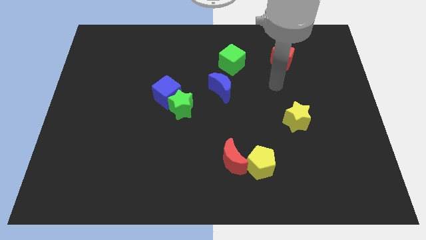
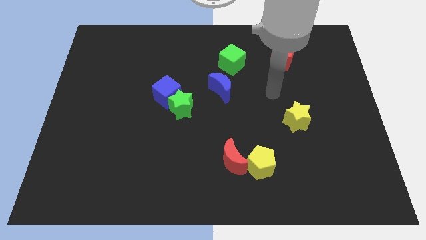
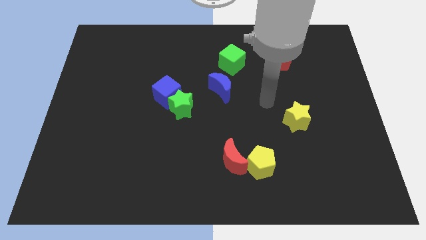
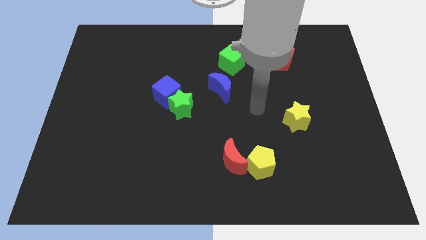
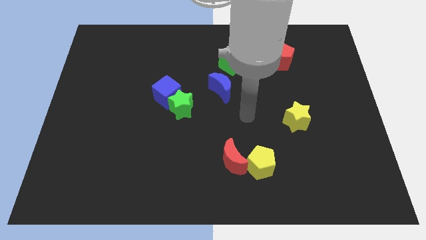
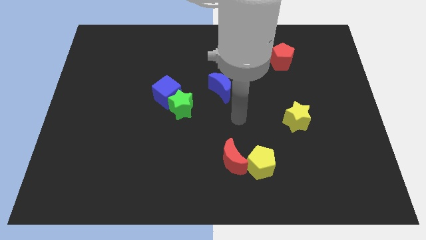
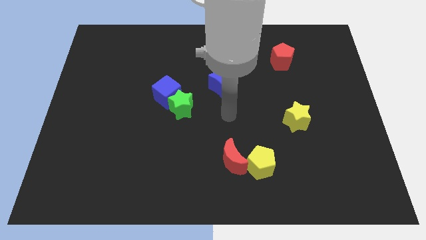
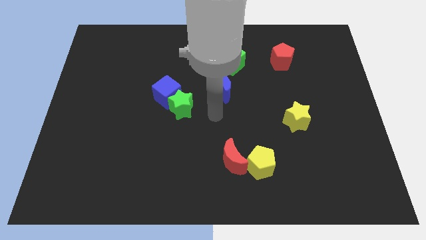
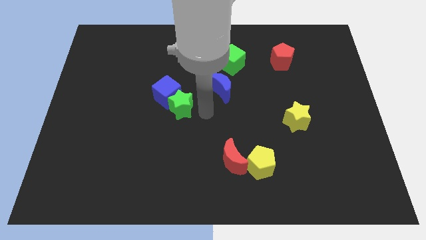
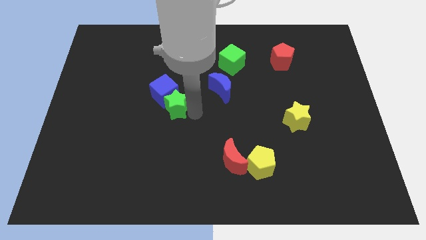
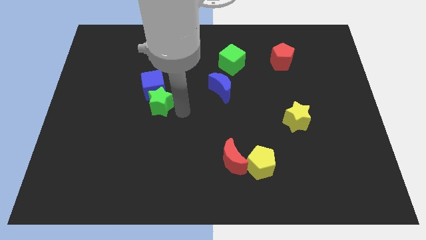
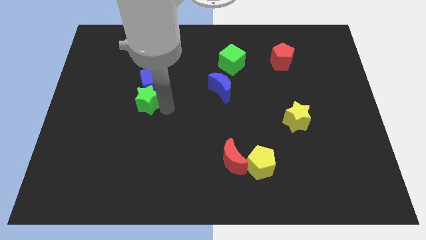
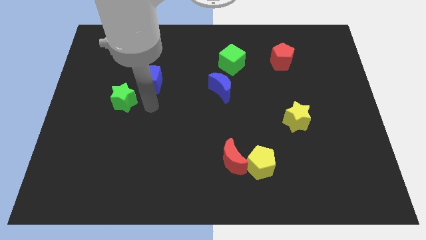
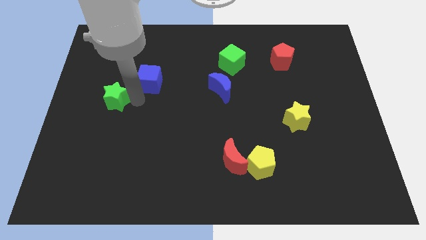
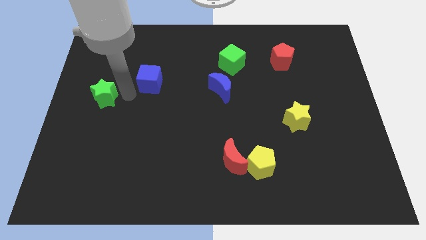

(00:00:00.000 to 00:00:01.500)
separate the blue cube from the green star

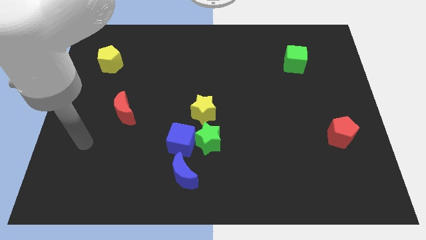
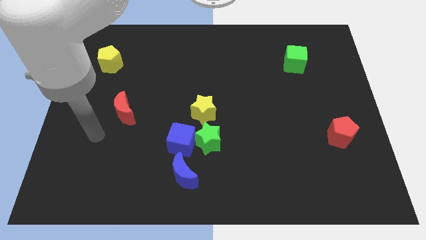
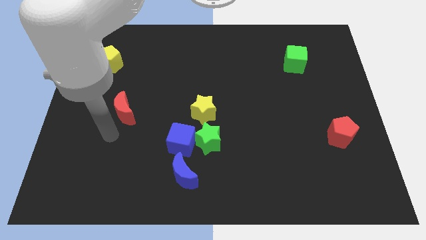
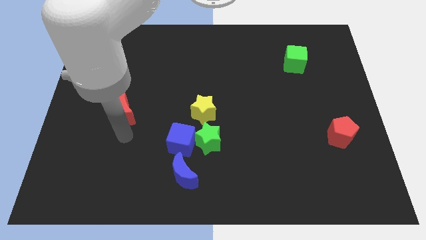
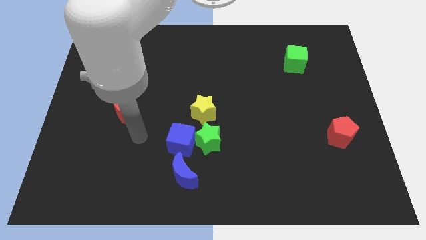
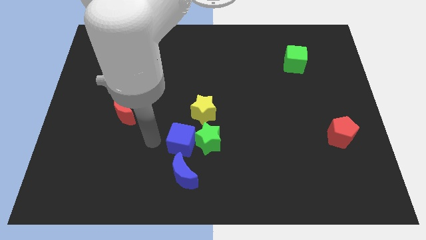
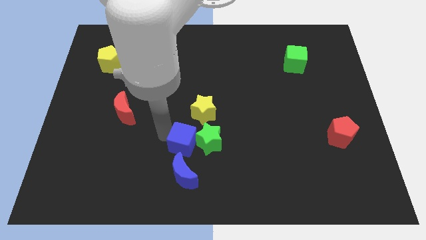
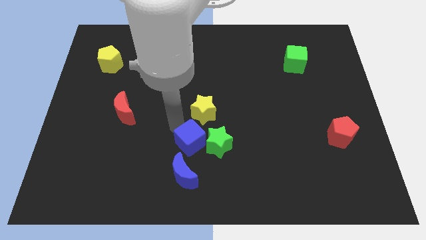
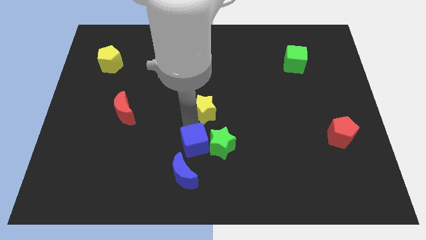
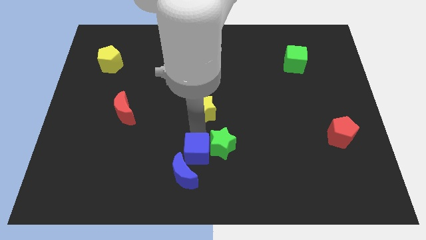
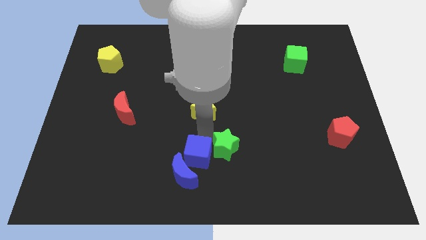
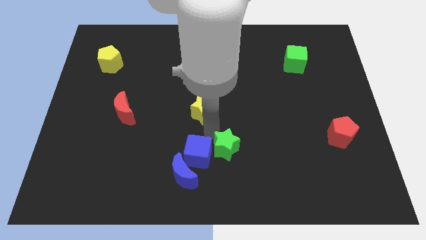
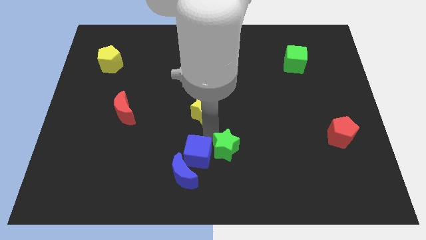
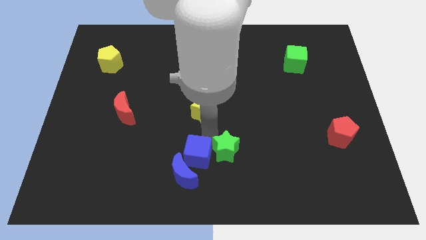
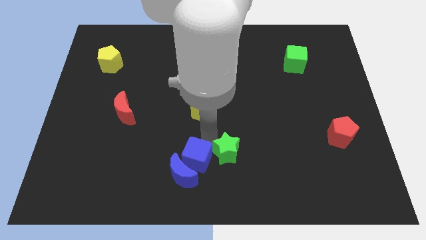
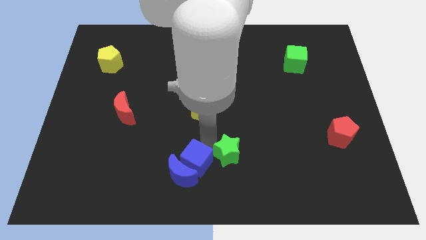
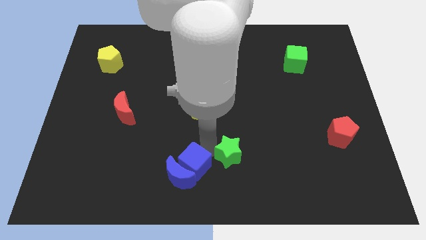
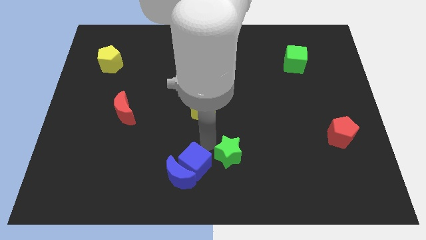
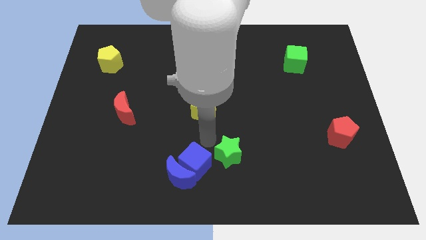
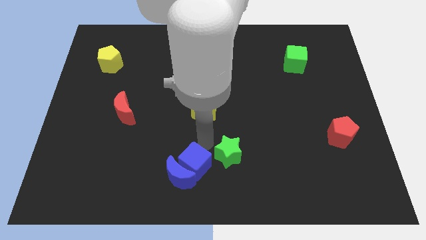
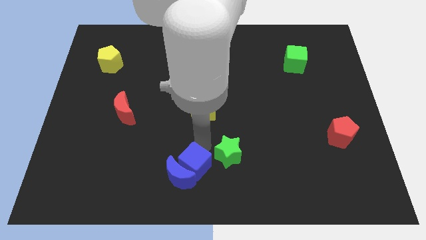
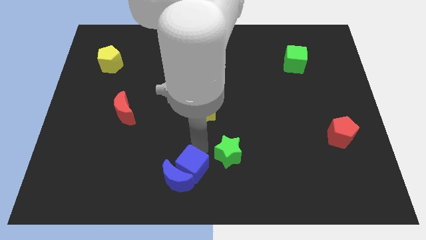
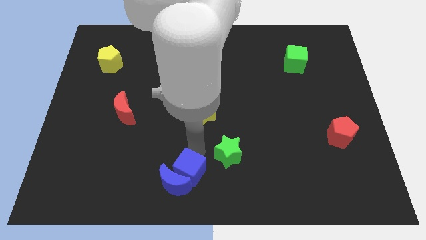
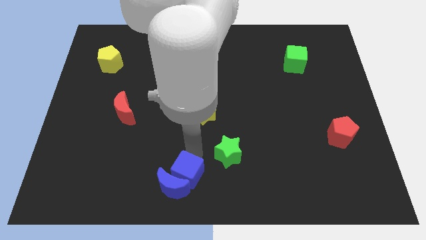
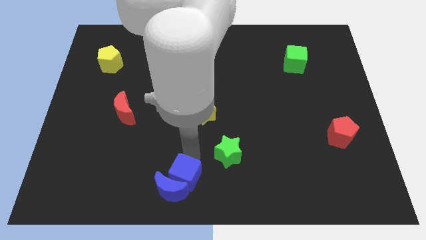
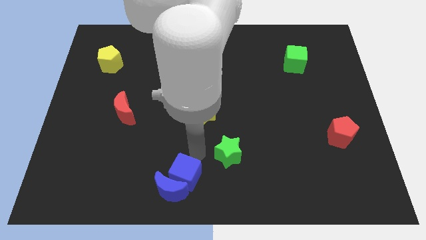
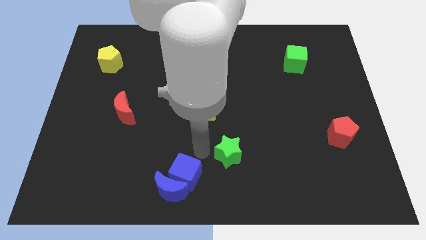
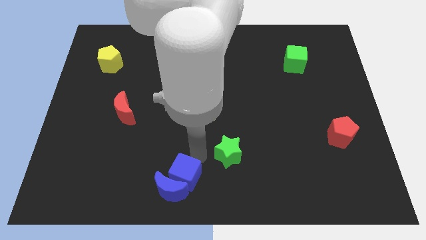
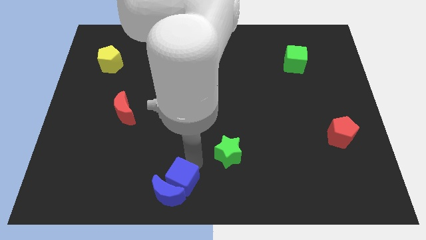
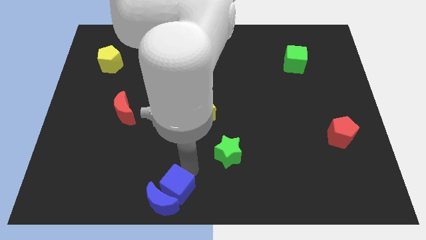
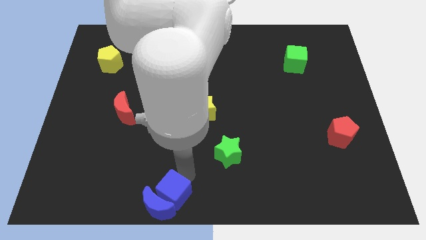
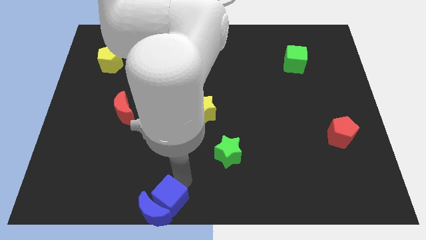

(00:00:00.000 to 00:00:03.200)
move the blue cube away from the group of blocks

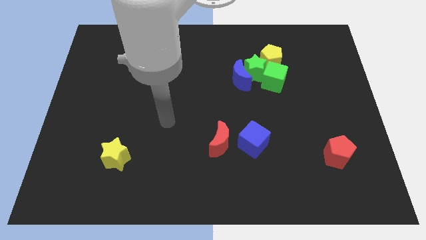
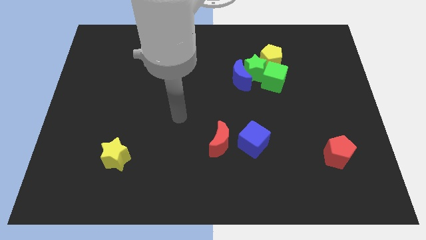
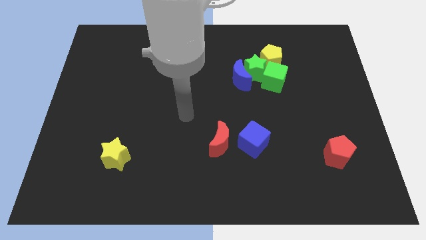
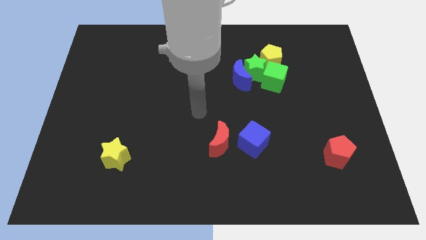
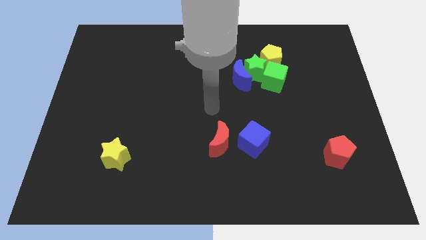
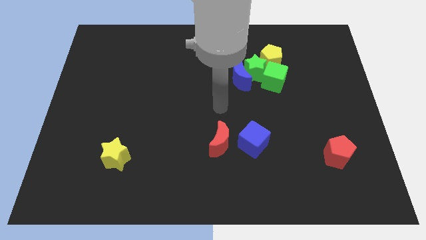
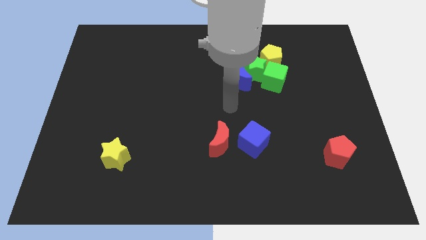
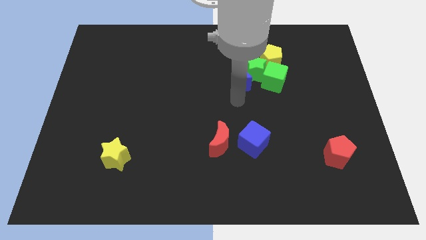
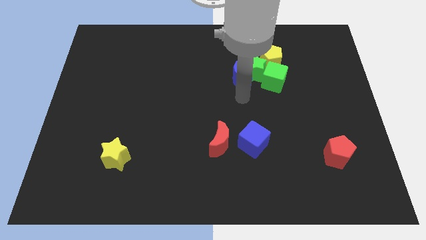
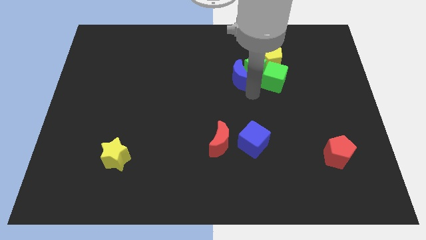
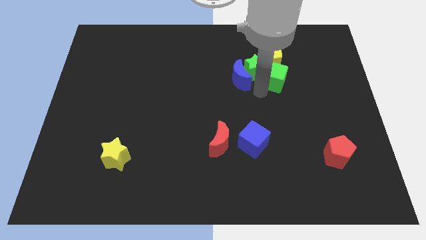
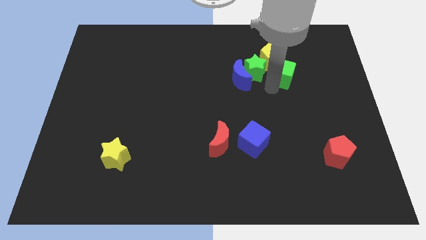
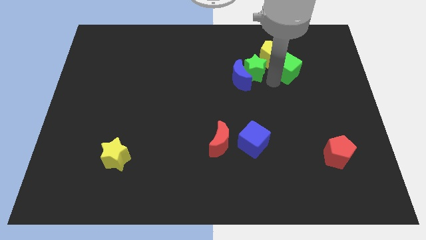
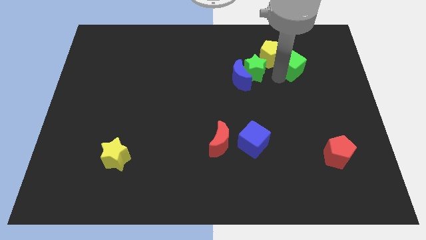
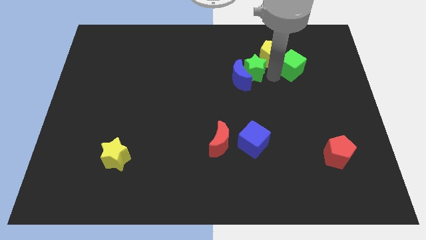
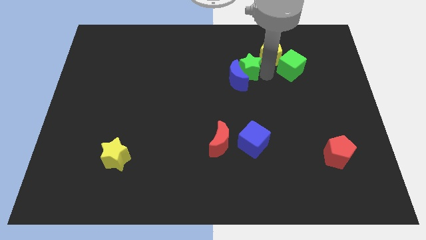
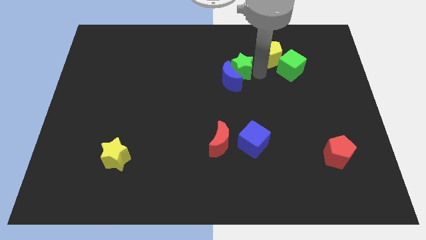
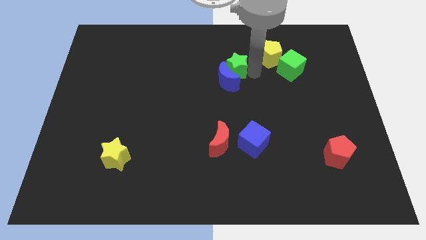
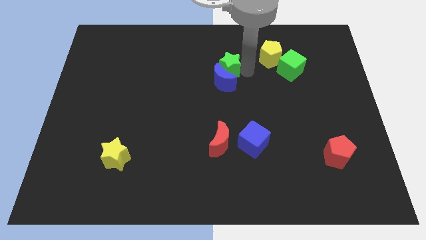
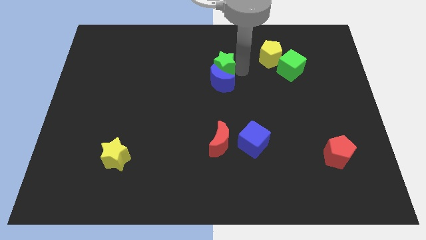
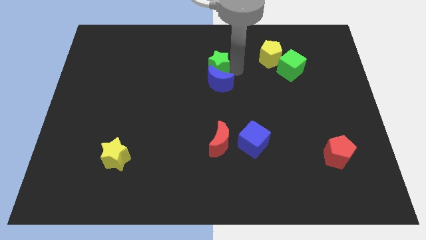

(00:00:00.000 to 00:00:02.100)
separate the green star from the blue moon, green cube, and yellow pentagon

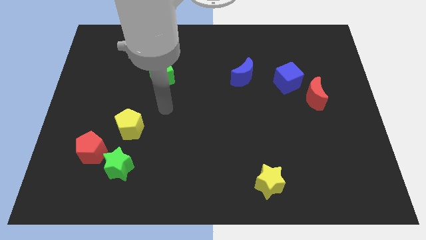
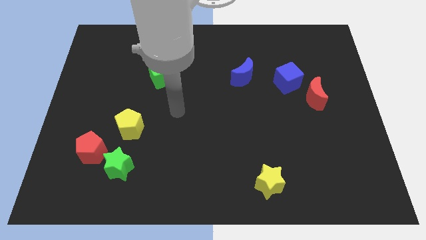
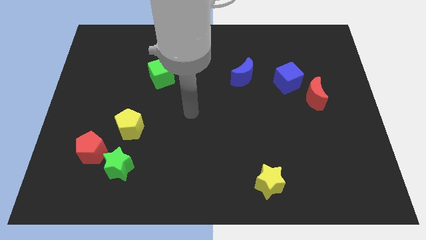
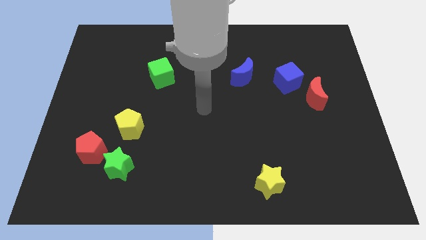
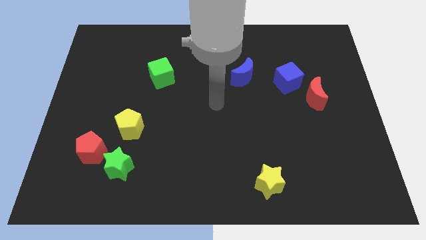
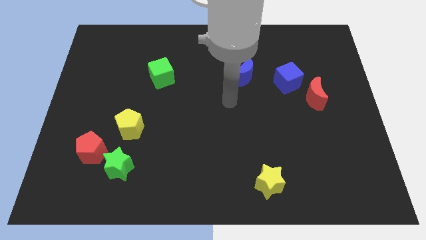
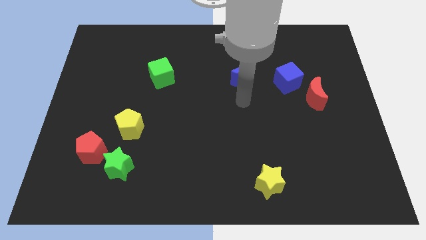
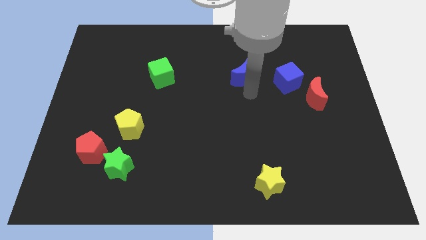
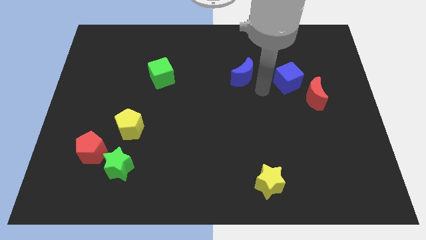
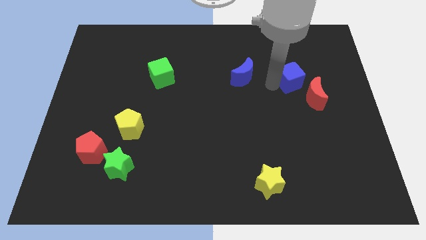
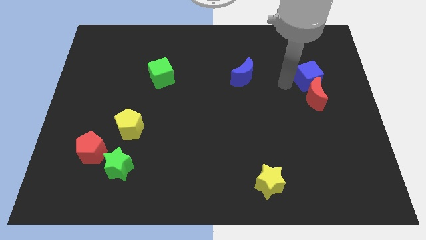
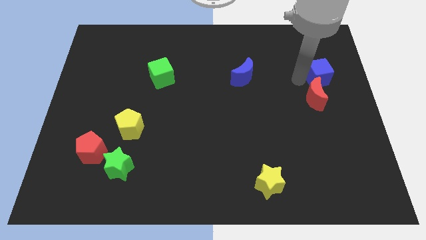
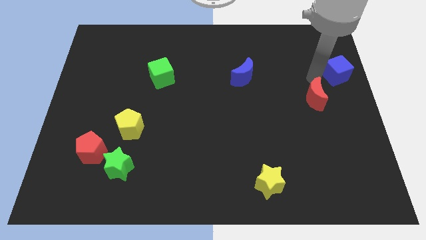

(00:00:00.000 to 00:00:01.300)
pull the red moon apart from the blue cube

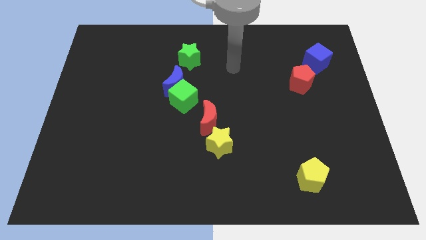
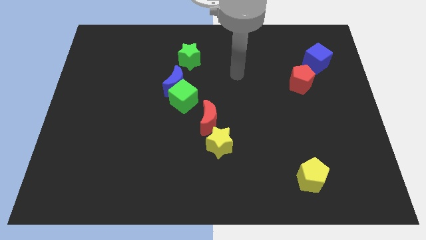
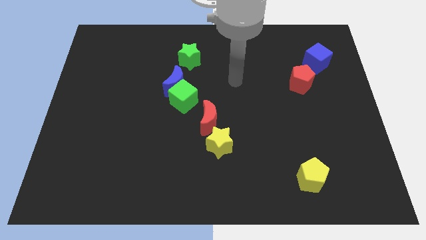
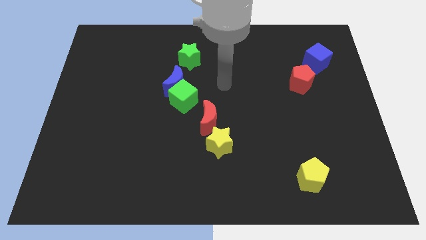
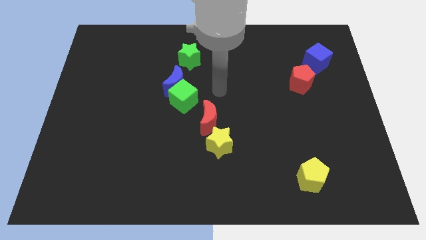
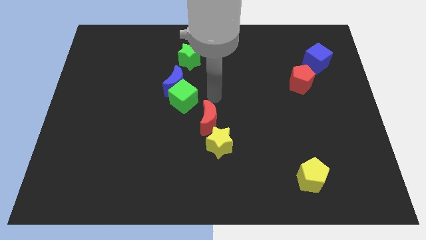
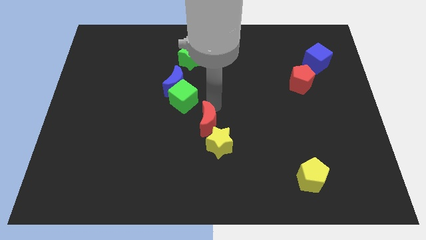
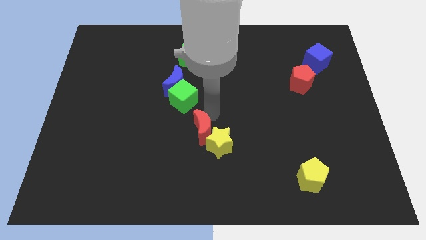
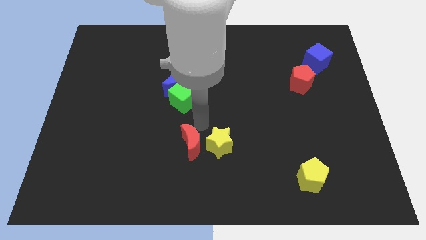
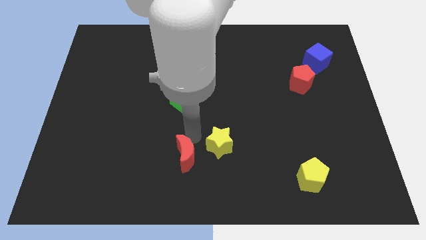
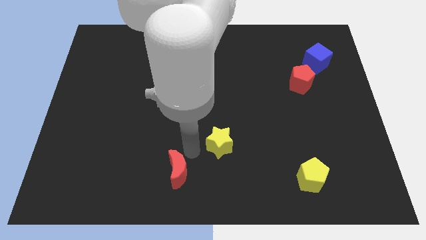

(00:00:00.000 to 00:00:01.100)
move the yellow star away from the red moon

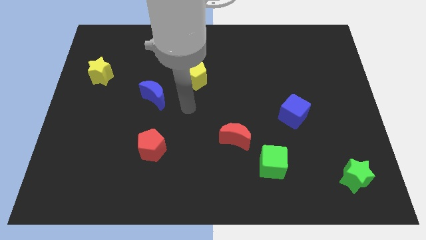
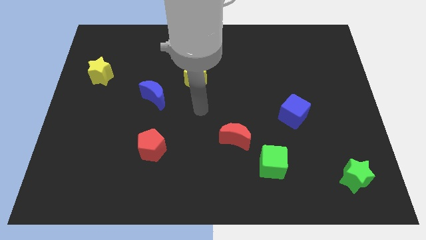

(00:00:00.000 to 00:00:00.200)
move the red moon away from the green cube
